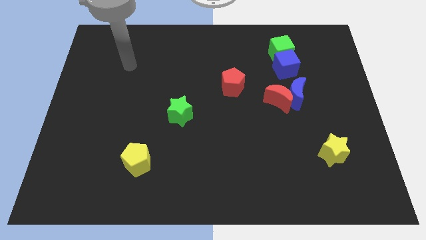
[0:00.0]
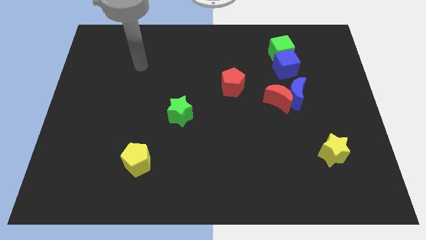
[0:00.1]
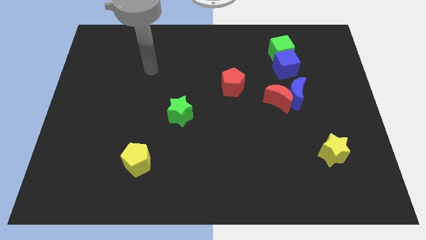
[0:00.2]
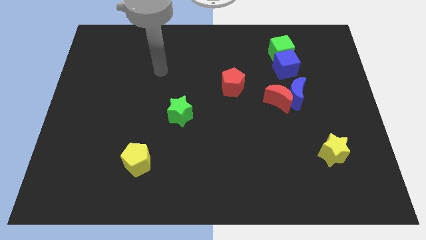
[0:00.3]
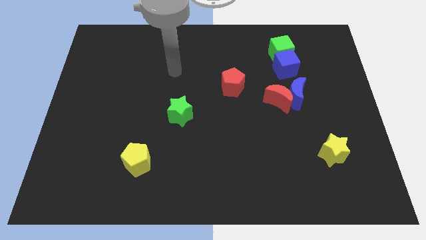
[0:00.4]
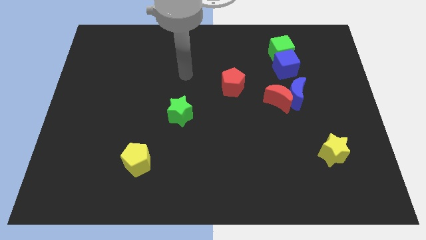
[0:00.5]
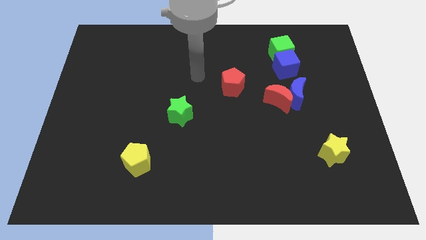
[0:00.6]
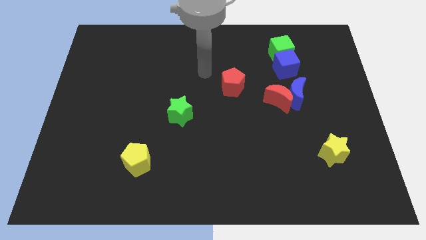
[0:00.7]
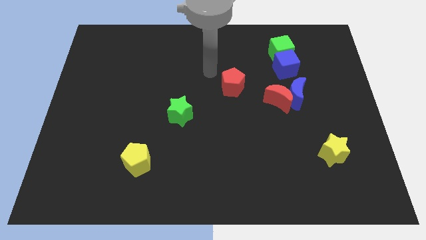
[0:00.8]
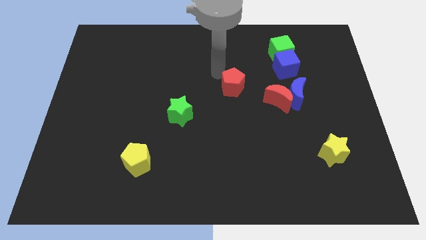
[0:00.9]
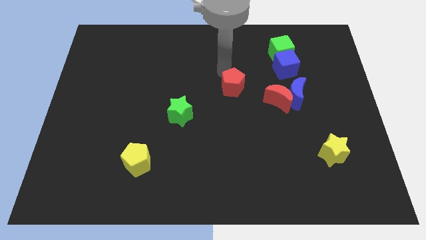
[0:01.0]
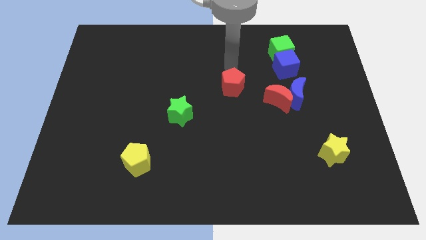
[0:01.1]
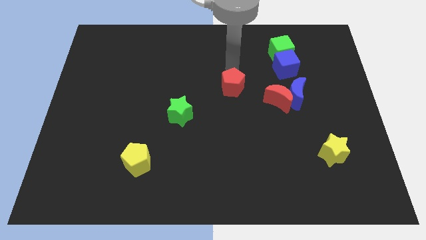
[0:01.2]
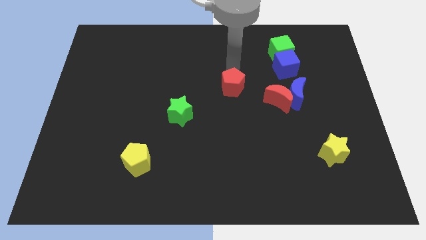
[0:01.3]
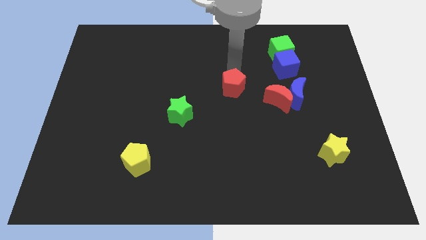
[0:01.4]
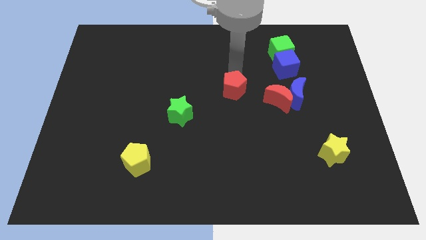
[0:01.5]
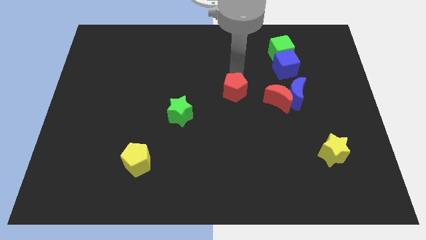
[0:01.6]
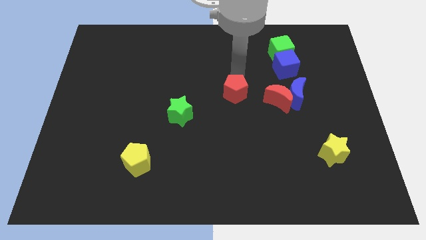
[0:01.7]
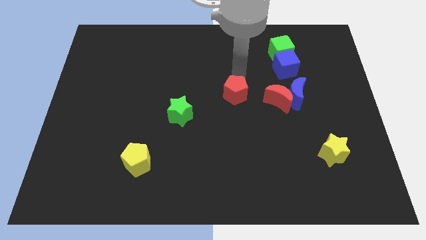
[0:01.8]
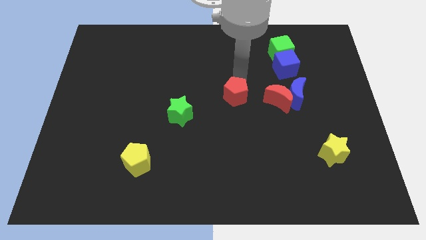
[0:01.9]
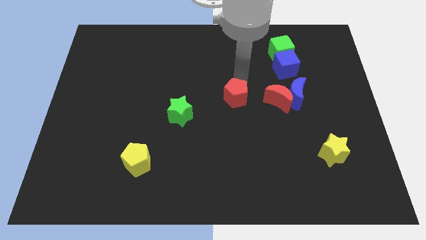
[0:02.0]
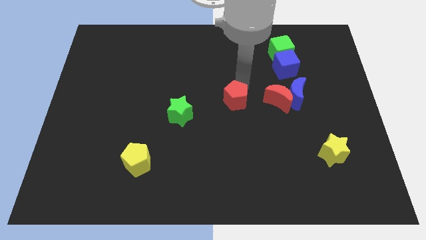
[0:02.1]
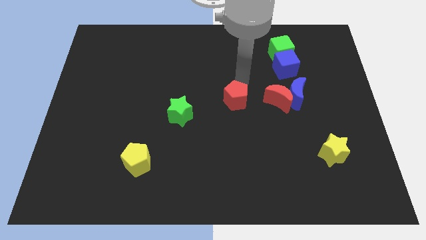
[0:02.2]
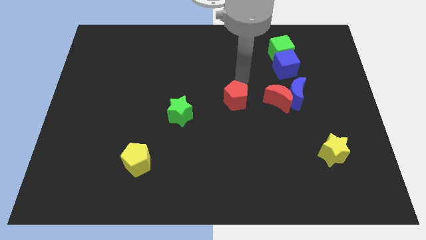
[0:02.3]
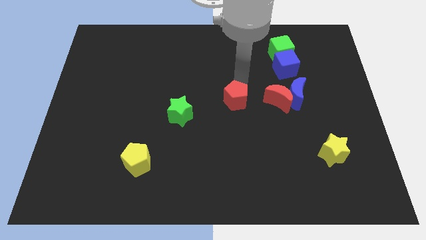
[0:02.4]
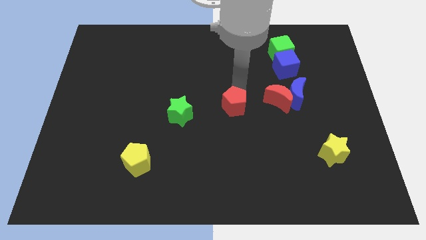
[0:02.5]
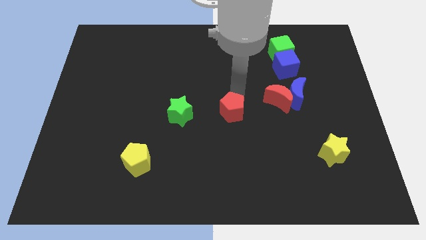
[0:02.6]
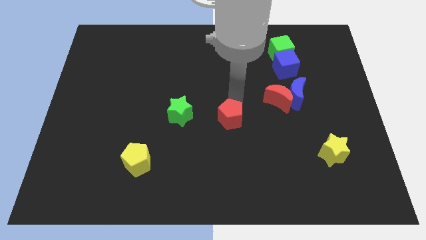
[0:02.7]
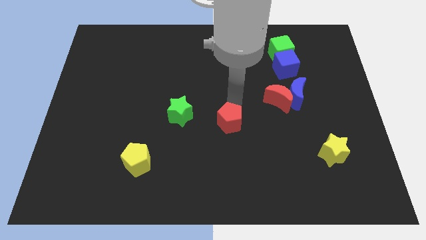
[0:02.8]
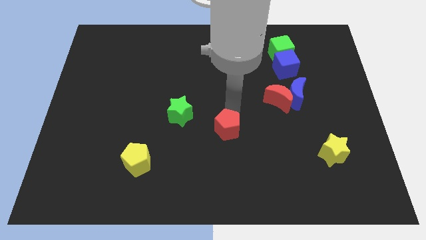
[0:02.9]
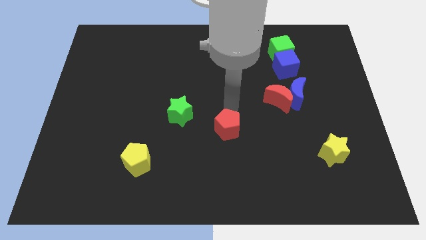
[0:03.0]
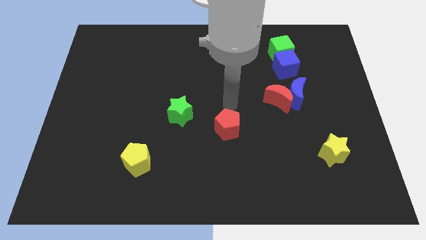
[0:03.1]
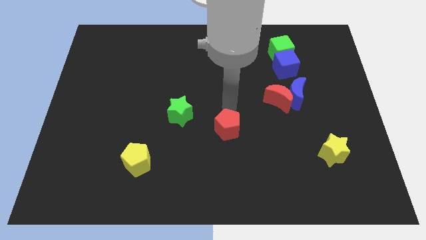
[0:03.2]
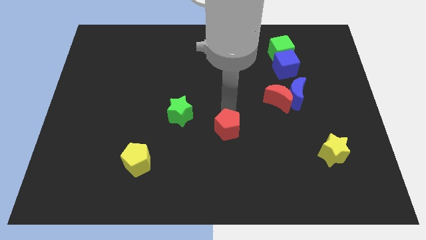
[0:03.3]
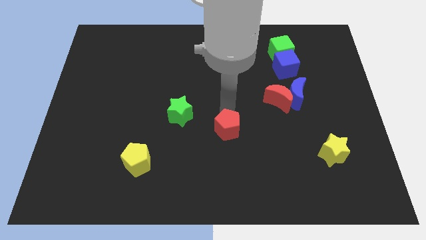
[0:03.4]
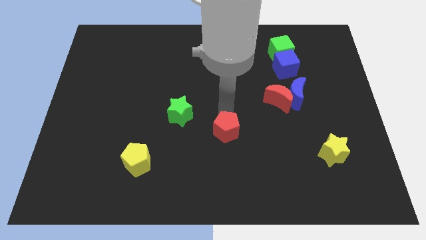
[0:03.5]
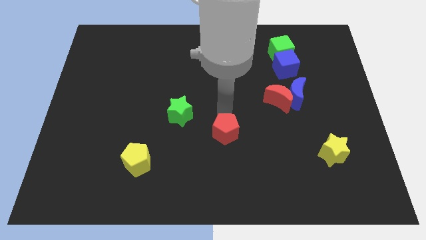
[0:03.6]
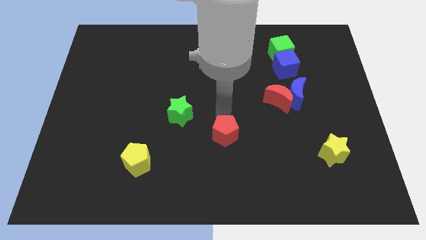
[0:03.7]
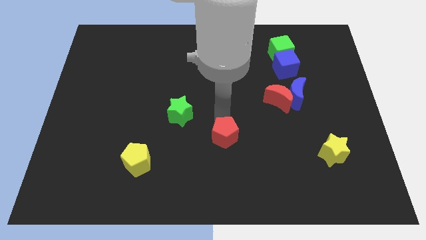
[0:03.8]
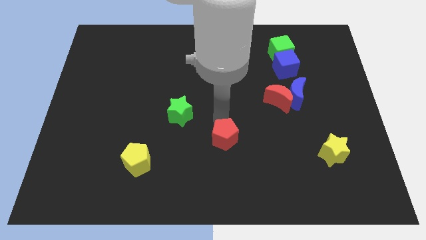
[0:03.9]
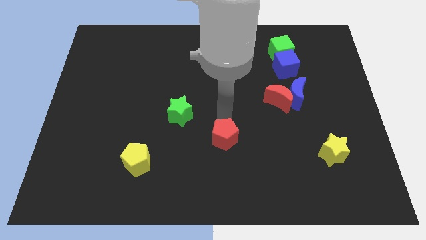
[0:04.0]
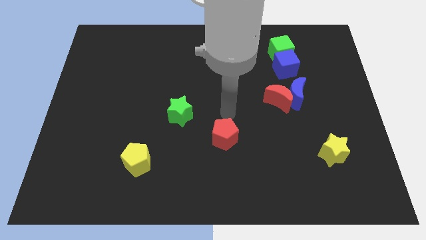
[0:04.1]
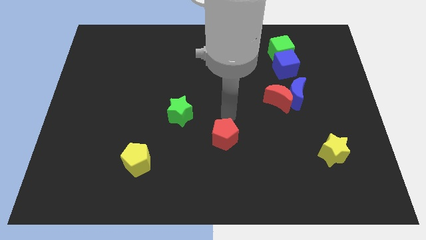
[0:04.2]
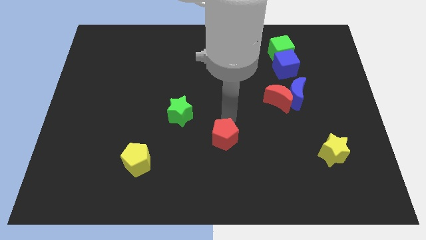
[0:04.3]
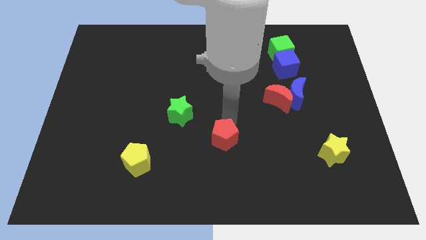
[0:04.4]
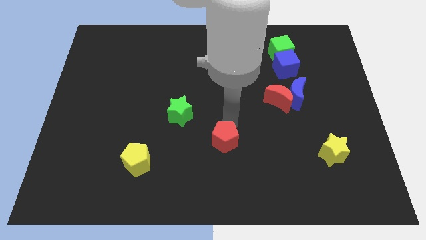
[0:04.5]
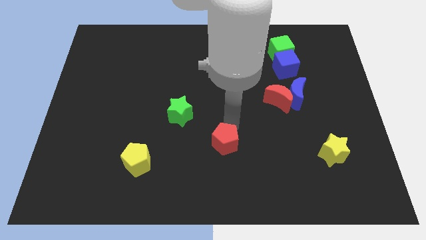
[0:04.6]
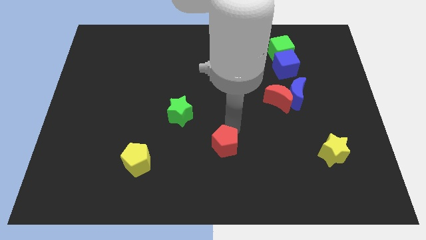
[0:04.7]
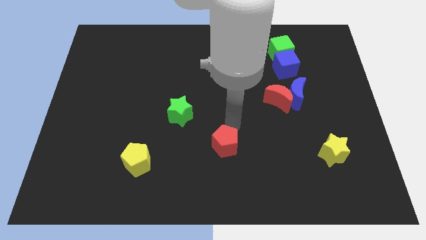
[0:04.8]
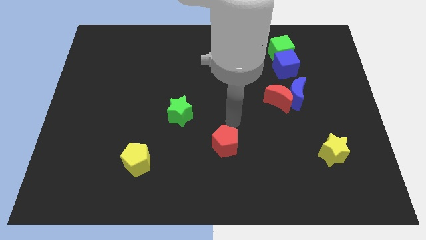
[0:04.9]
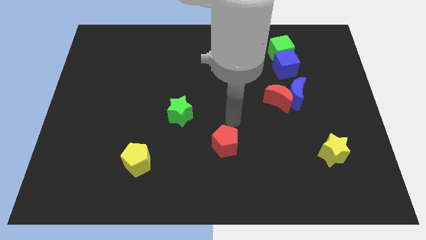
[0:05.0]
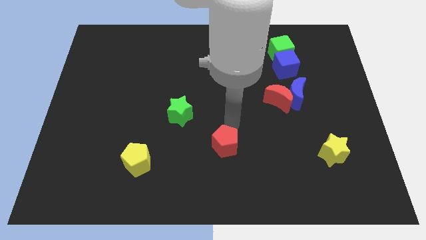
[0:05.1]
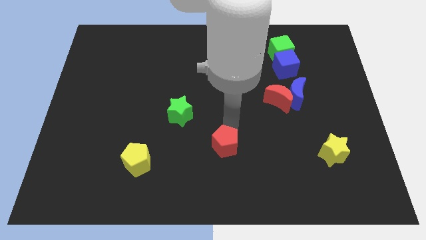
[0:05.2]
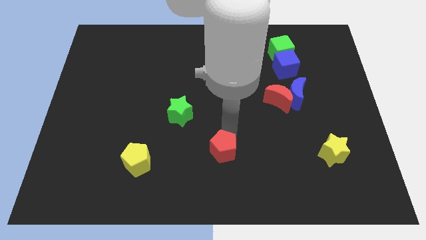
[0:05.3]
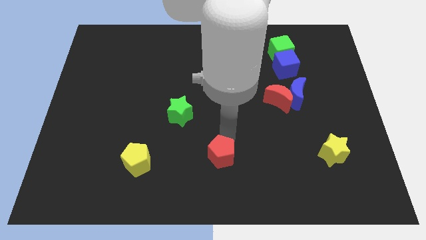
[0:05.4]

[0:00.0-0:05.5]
move the red pentagon to the bottom

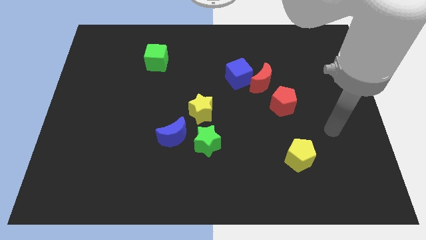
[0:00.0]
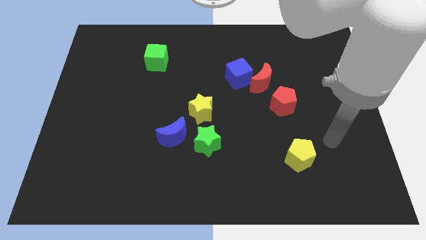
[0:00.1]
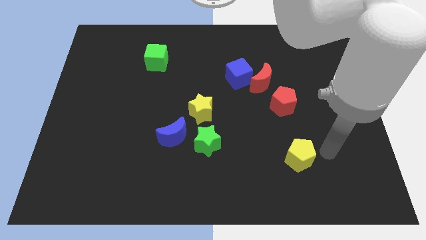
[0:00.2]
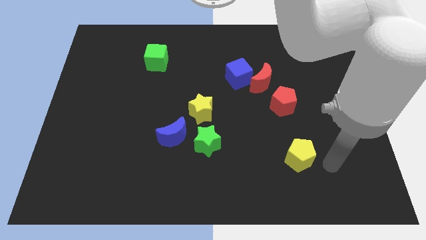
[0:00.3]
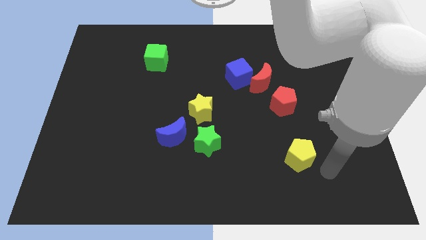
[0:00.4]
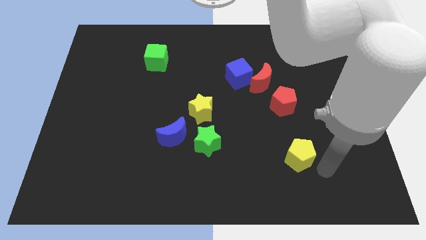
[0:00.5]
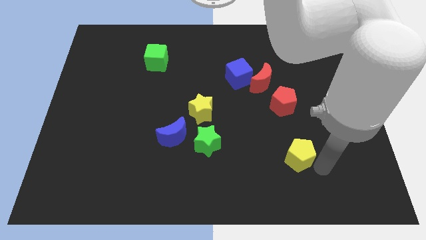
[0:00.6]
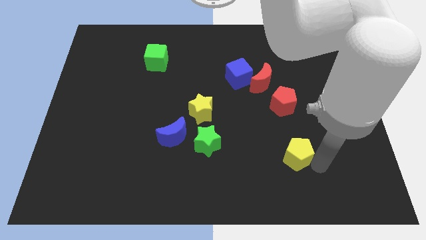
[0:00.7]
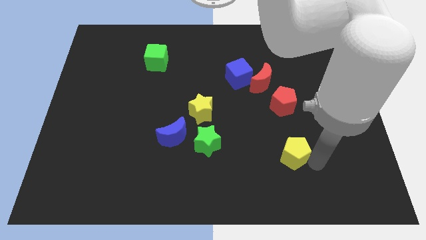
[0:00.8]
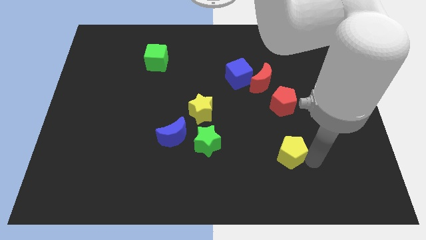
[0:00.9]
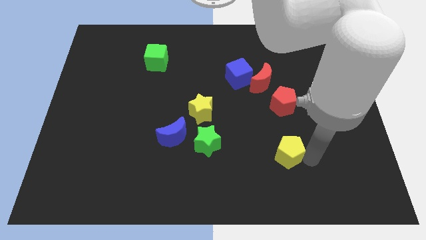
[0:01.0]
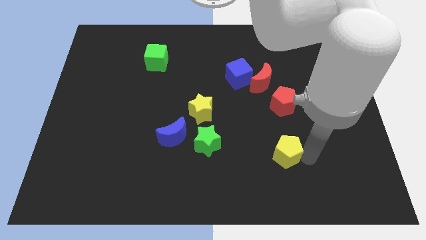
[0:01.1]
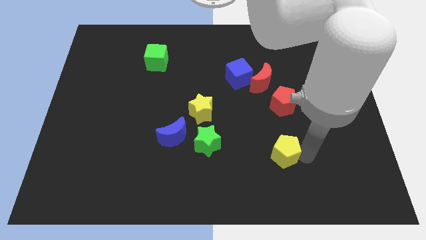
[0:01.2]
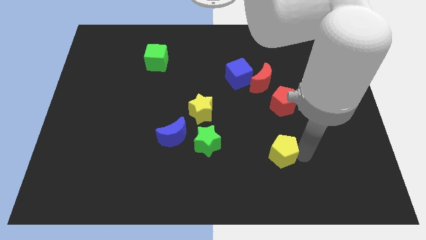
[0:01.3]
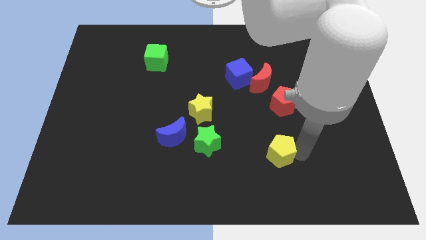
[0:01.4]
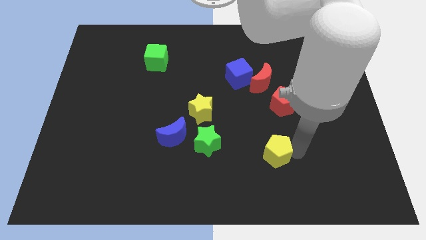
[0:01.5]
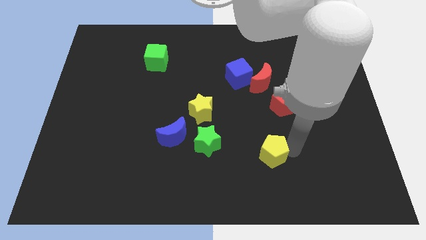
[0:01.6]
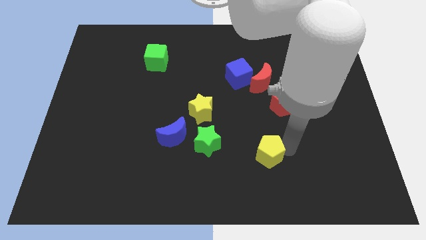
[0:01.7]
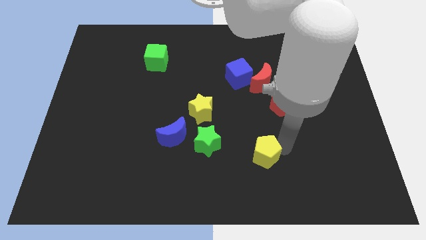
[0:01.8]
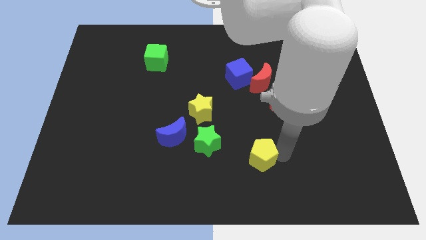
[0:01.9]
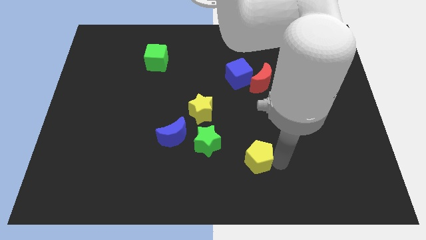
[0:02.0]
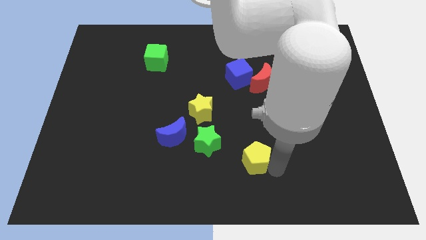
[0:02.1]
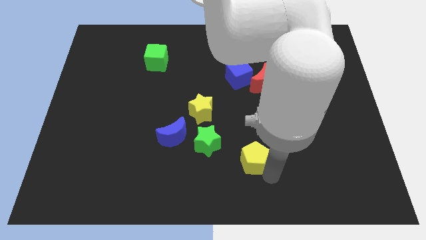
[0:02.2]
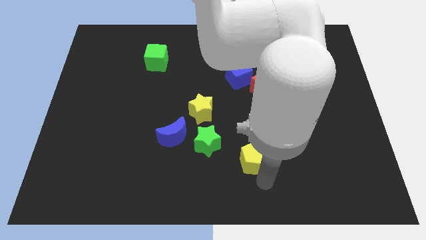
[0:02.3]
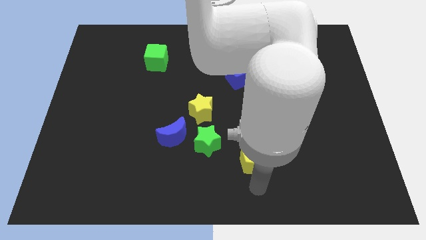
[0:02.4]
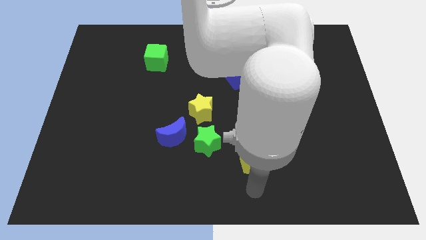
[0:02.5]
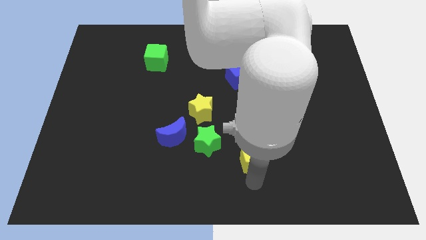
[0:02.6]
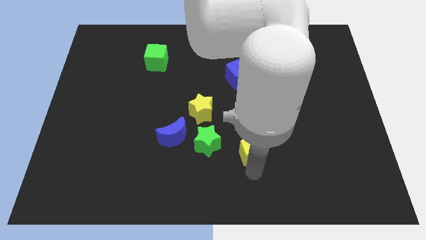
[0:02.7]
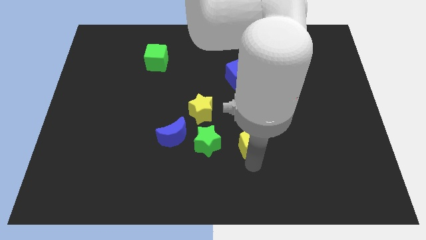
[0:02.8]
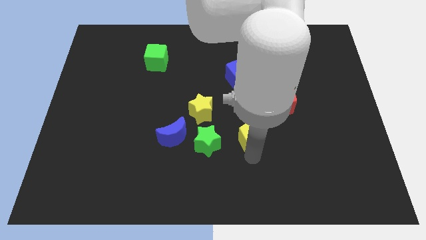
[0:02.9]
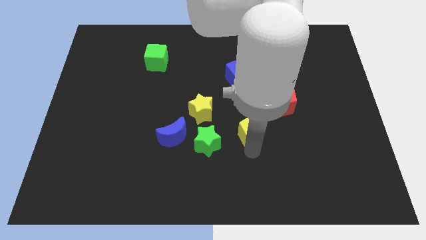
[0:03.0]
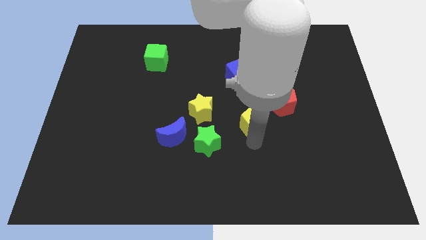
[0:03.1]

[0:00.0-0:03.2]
slide the yellow pentagon to the center
